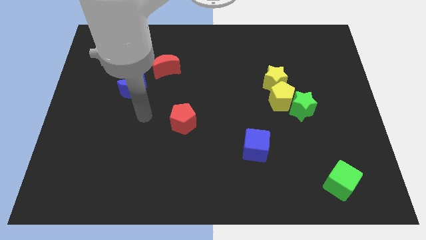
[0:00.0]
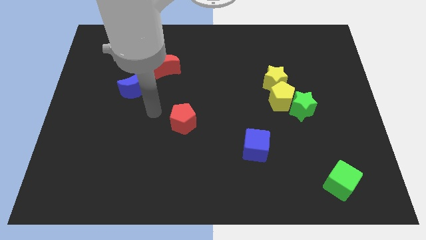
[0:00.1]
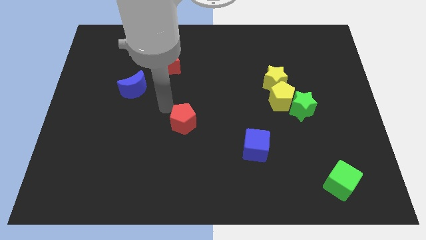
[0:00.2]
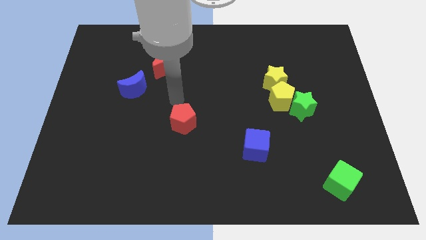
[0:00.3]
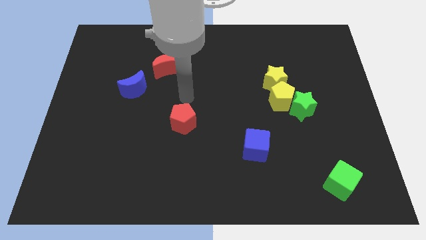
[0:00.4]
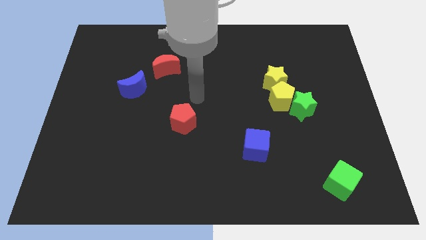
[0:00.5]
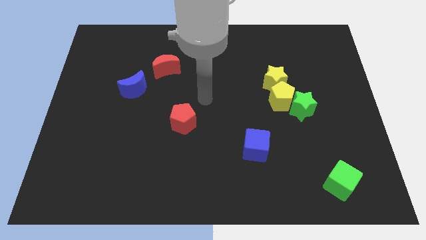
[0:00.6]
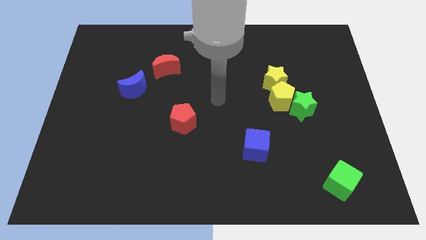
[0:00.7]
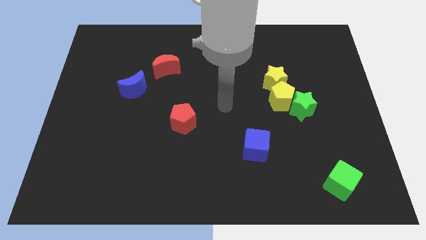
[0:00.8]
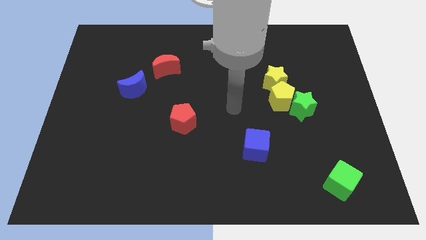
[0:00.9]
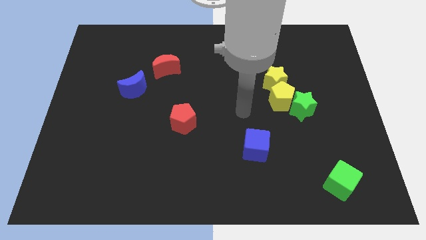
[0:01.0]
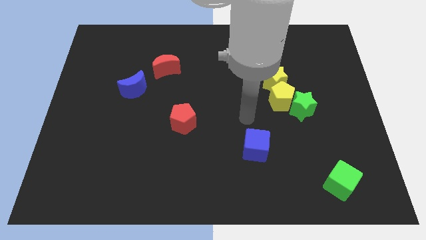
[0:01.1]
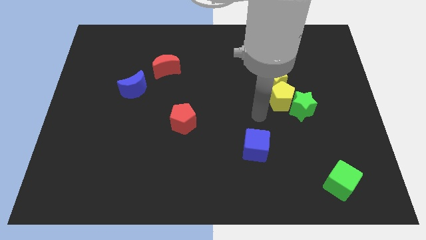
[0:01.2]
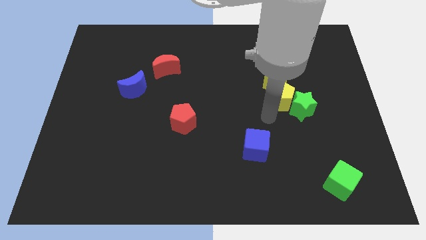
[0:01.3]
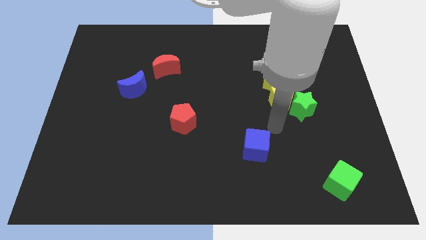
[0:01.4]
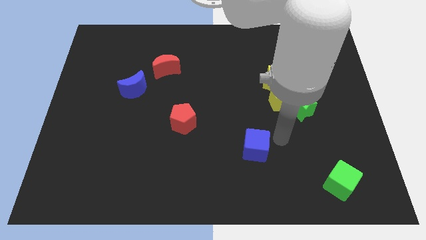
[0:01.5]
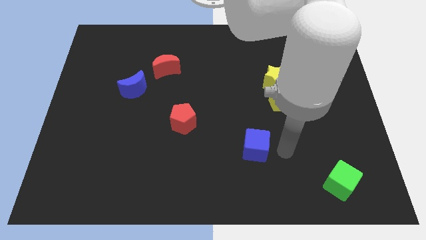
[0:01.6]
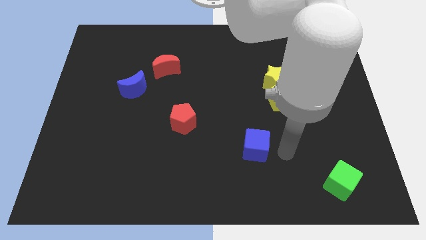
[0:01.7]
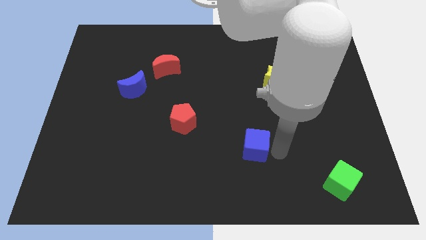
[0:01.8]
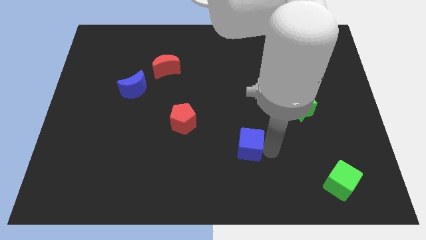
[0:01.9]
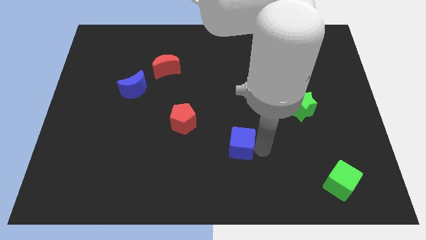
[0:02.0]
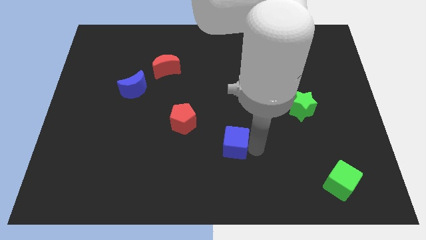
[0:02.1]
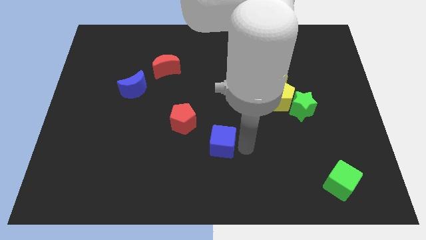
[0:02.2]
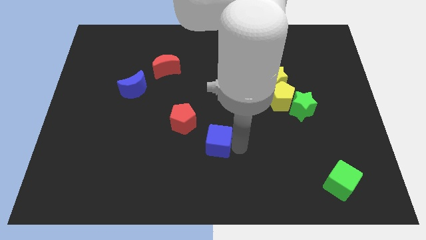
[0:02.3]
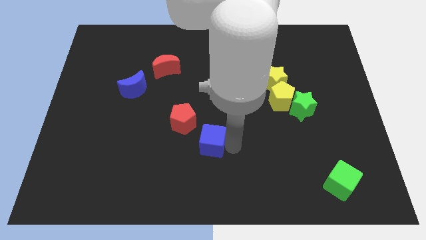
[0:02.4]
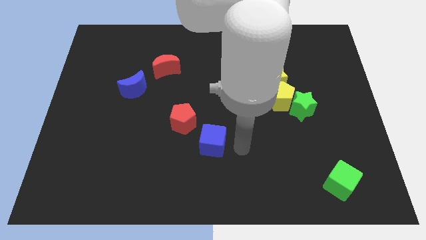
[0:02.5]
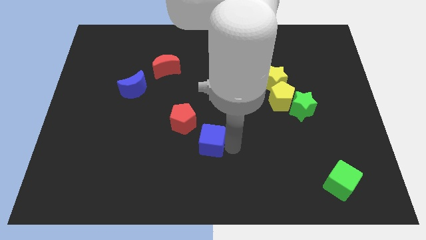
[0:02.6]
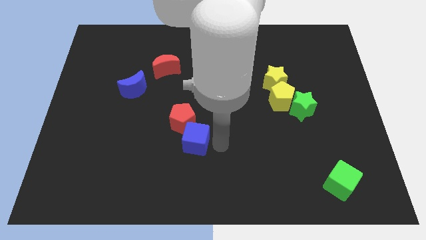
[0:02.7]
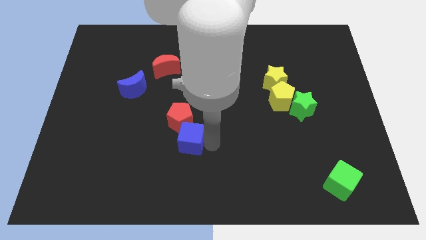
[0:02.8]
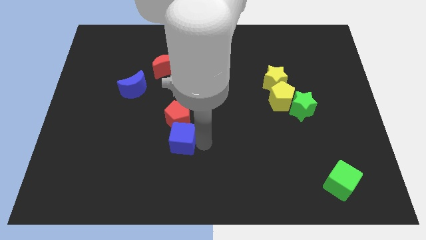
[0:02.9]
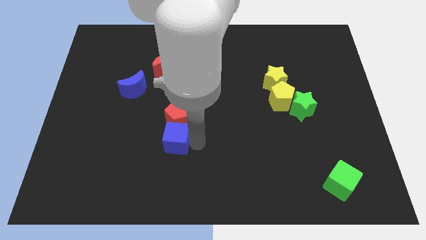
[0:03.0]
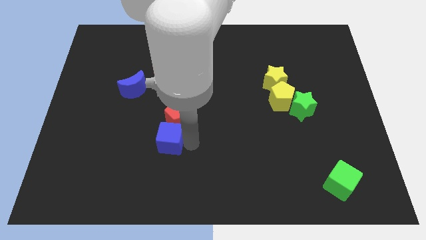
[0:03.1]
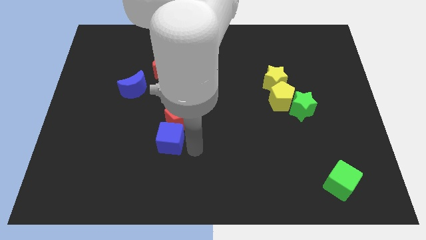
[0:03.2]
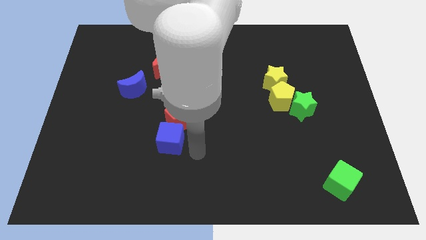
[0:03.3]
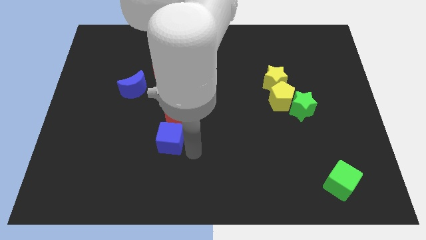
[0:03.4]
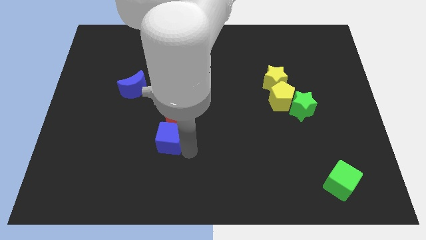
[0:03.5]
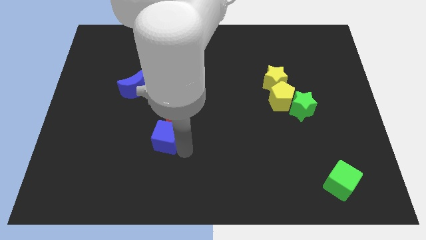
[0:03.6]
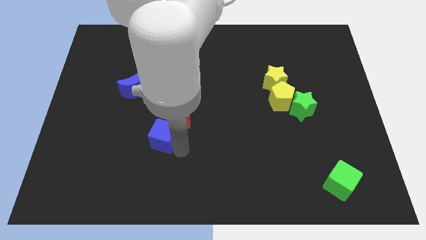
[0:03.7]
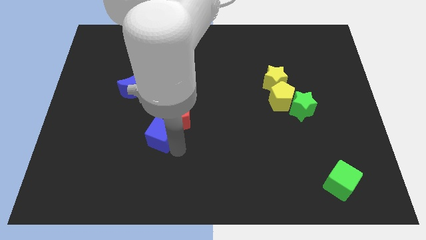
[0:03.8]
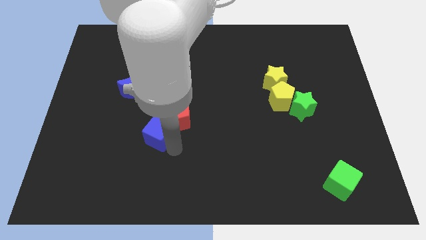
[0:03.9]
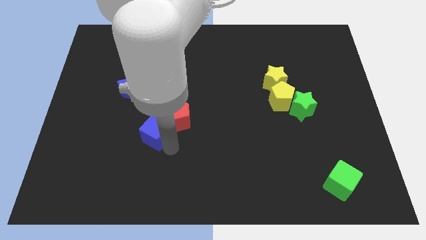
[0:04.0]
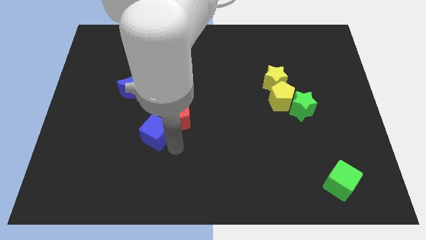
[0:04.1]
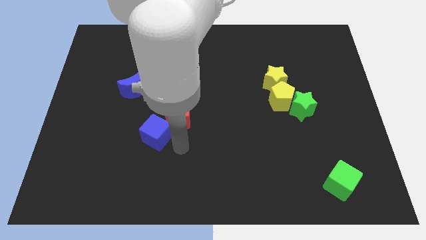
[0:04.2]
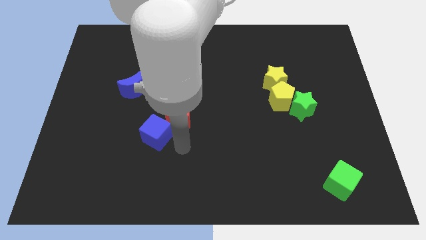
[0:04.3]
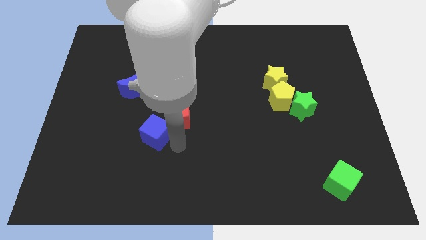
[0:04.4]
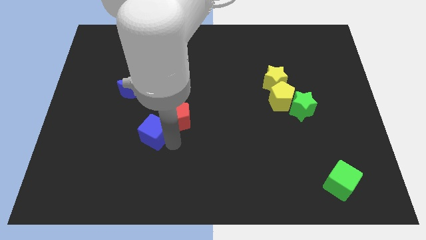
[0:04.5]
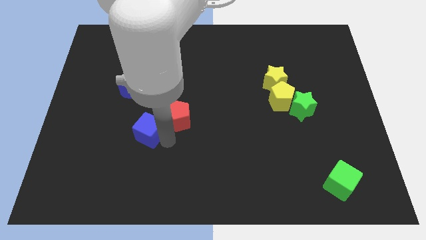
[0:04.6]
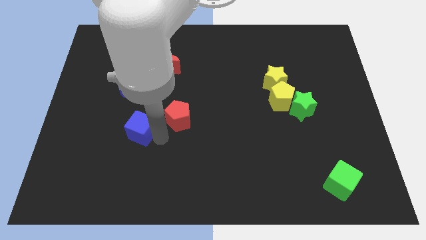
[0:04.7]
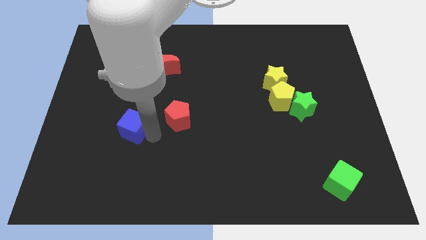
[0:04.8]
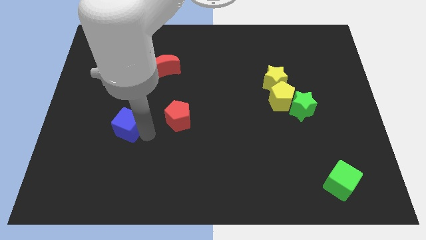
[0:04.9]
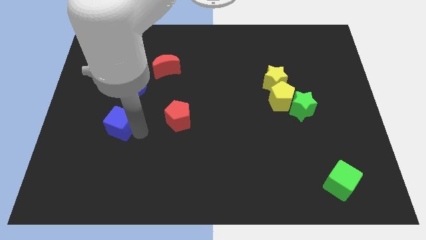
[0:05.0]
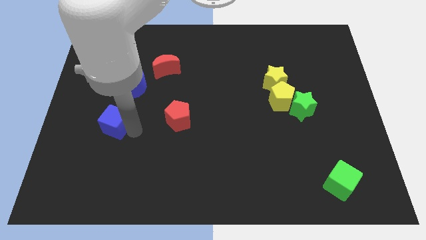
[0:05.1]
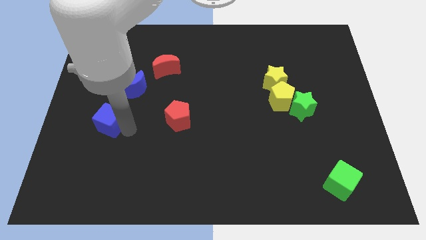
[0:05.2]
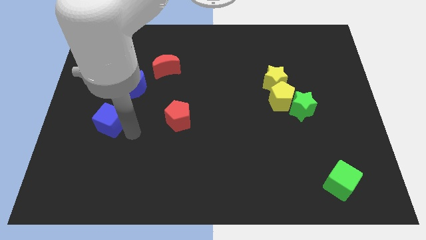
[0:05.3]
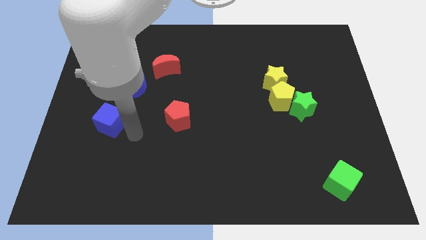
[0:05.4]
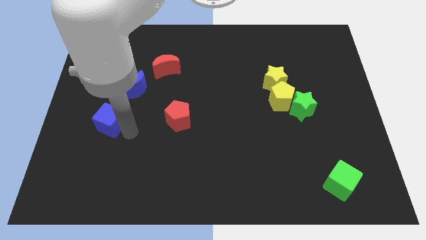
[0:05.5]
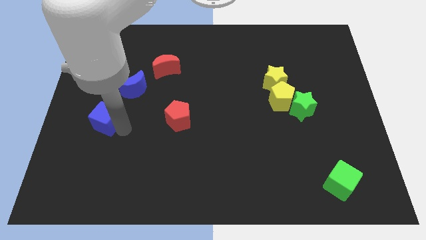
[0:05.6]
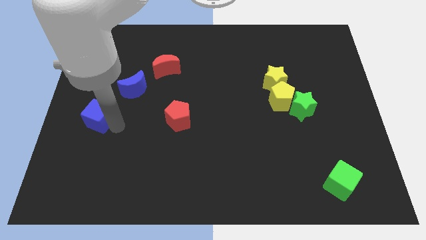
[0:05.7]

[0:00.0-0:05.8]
push the blue cube to the left side
